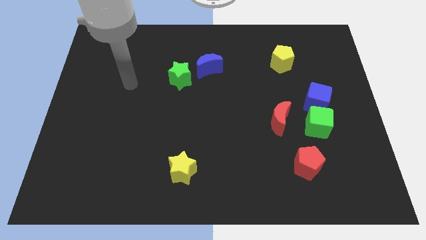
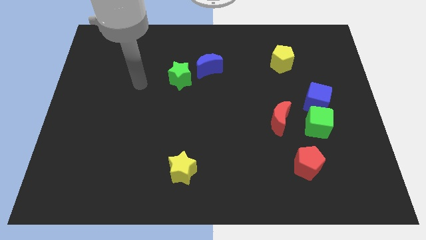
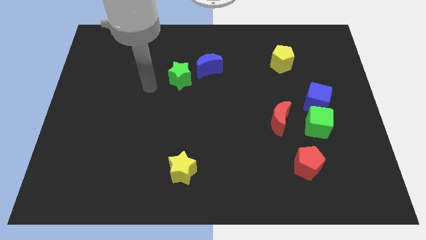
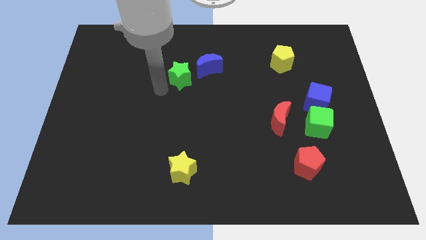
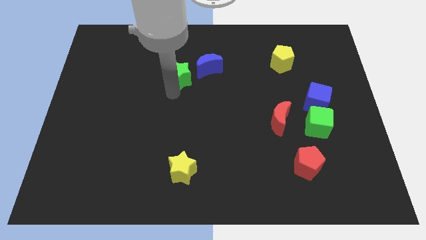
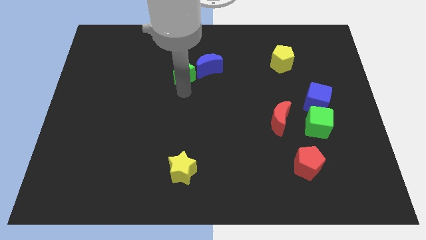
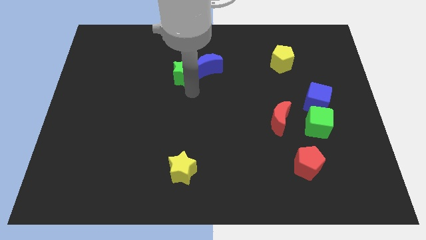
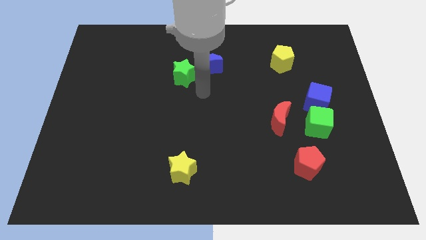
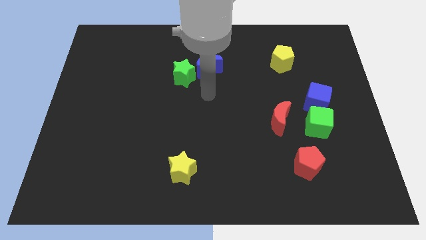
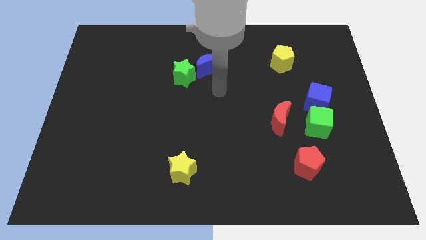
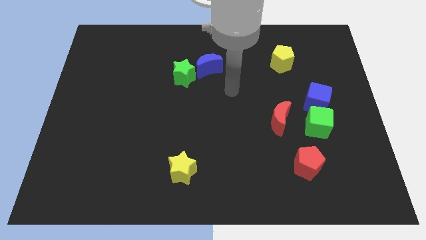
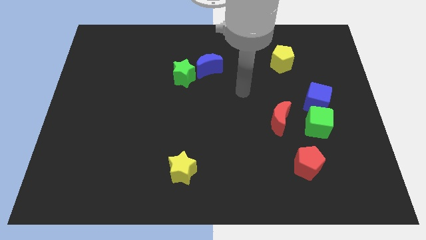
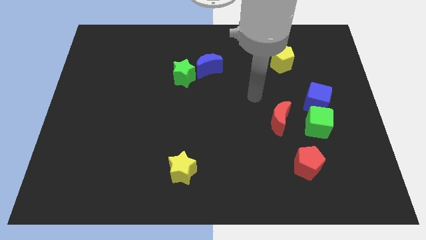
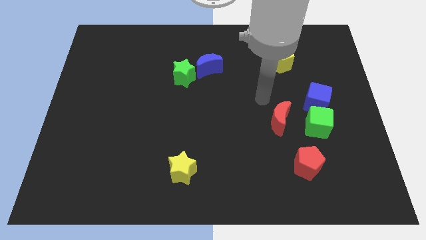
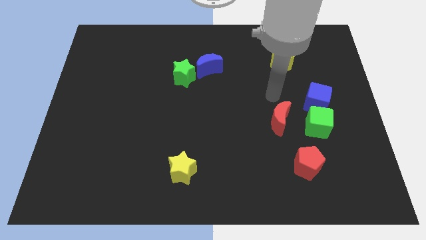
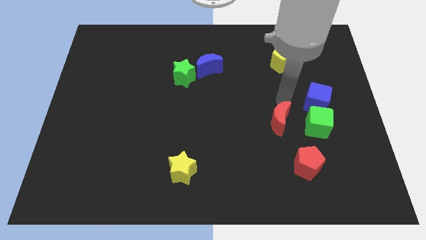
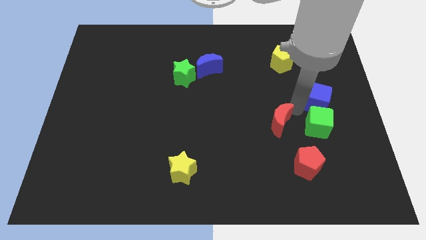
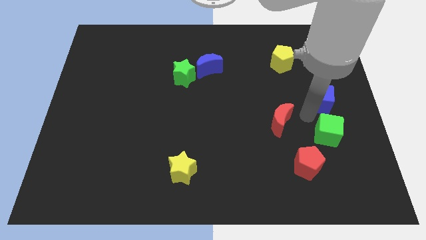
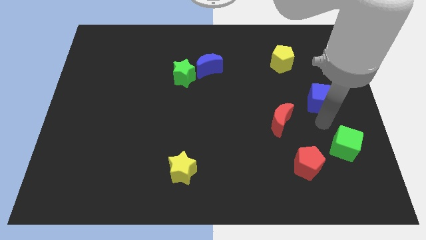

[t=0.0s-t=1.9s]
separate the blue cube from the green cube

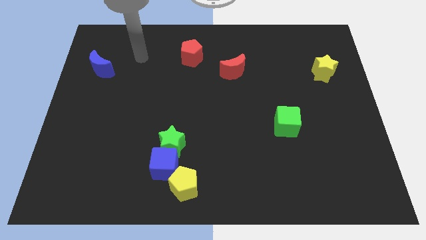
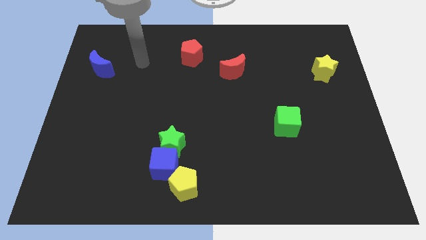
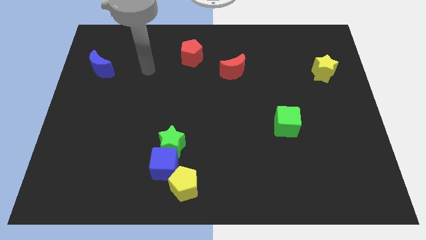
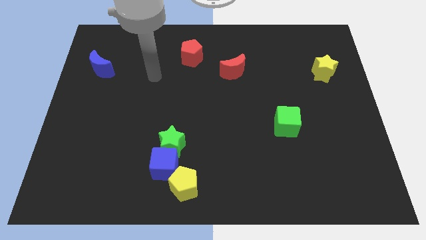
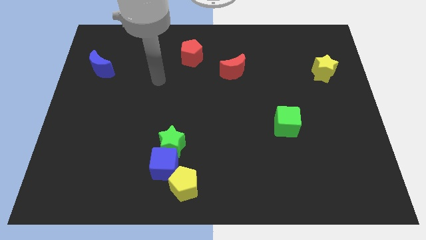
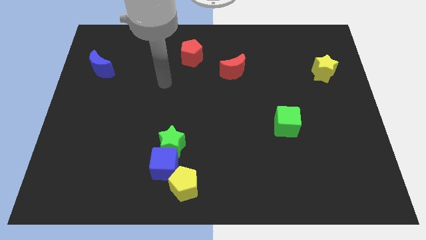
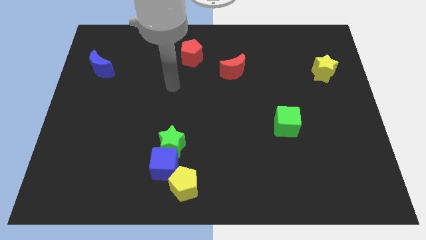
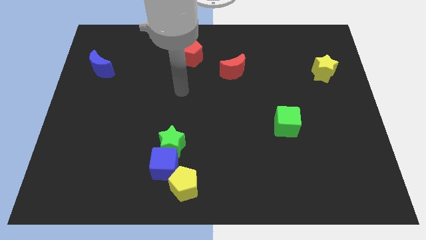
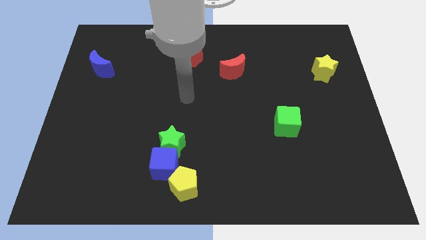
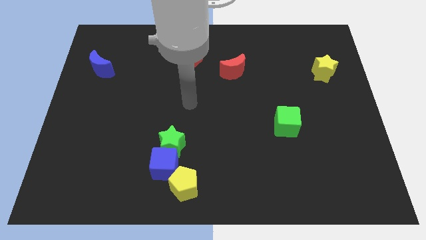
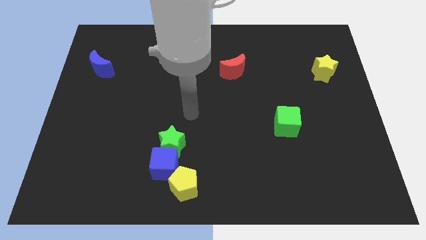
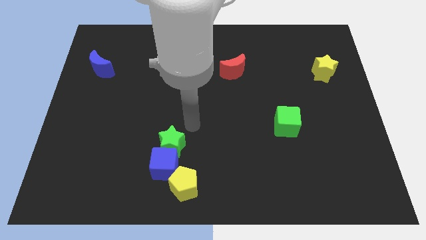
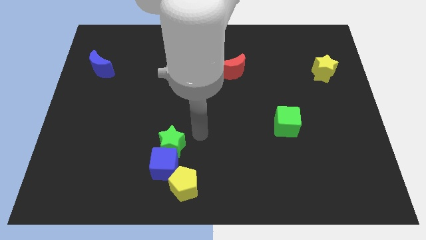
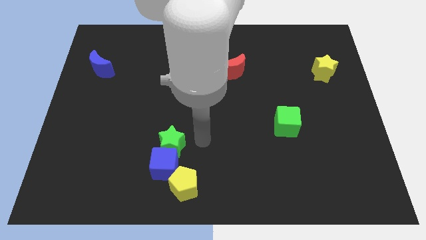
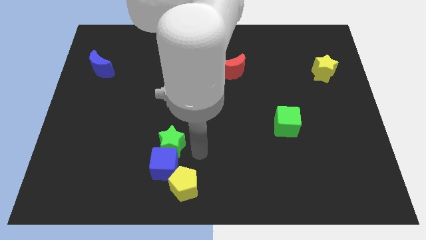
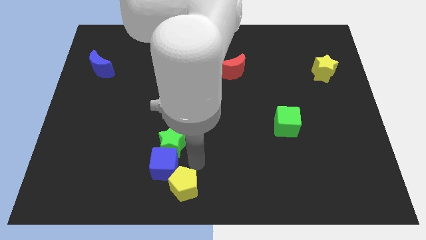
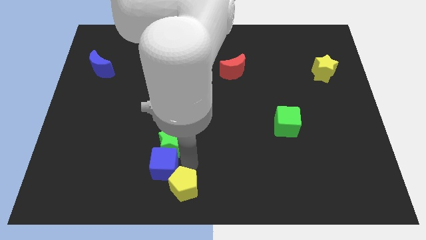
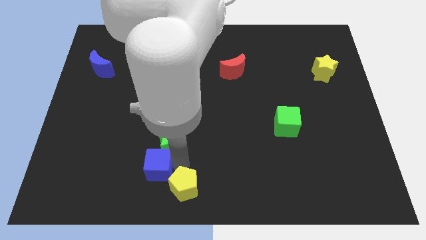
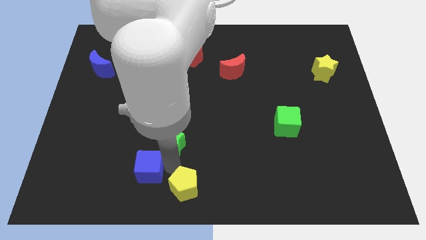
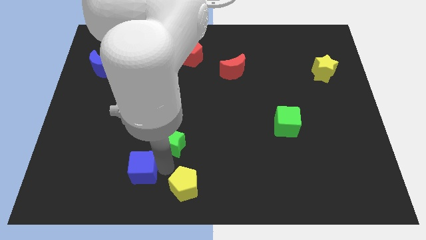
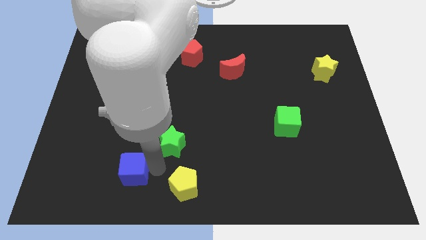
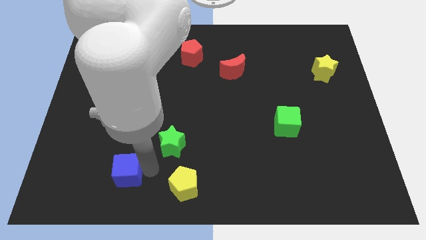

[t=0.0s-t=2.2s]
pull the blue cube apart from the green star and yellow pentagon

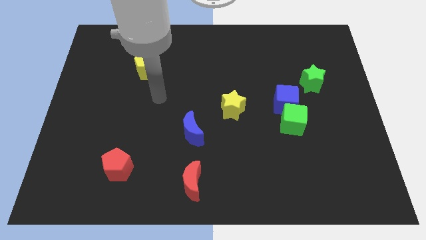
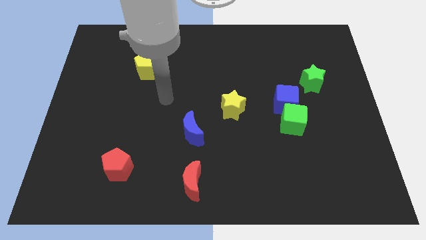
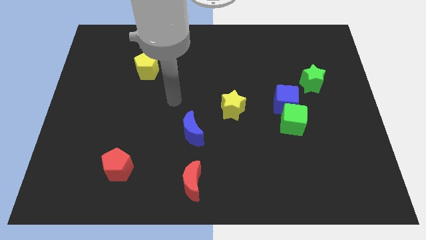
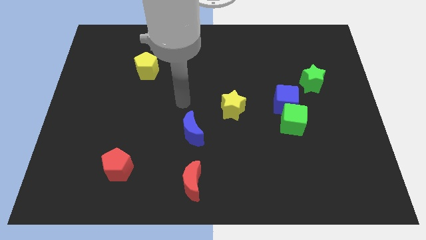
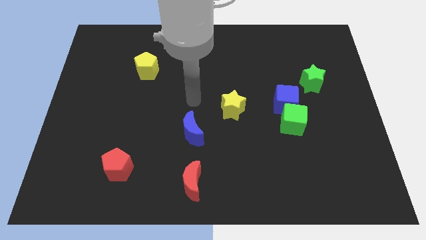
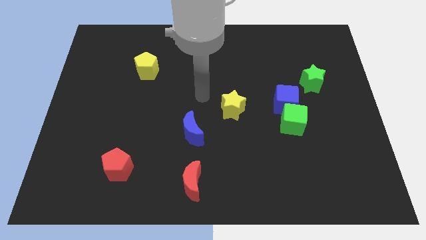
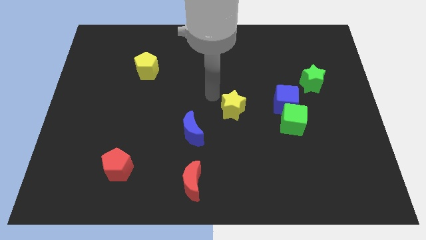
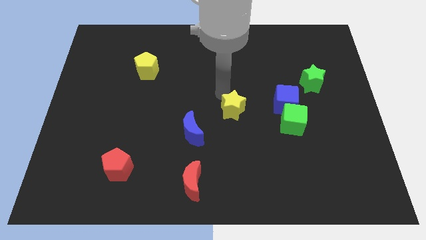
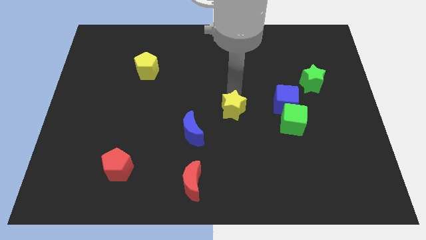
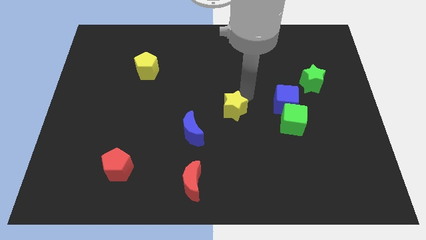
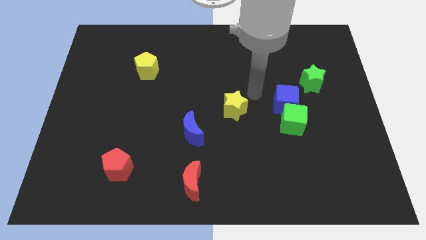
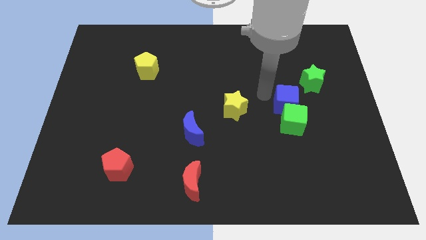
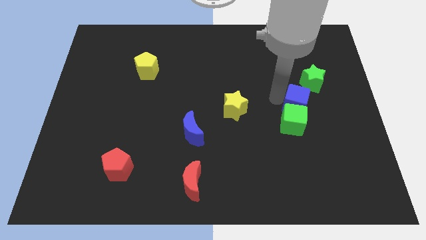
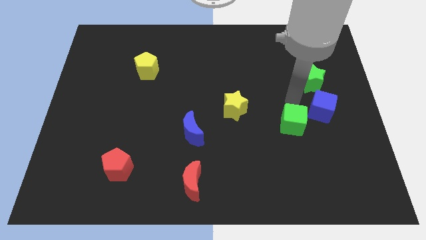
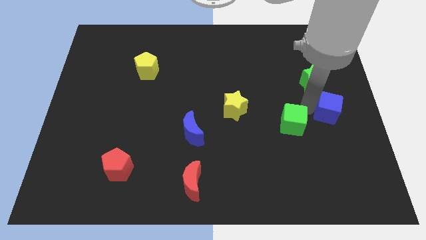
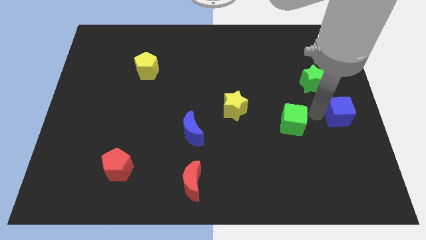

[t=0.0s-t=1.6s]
move the green cube away from the blue cube

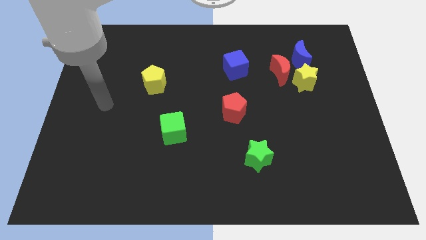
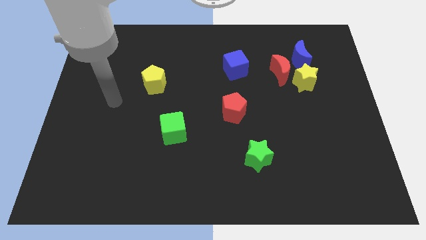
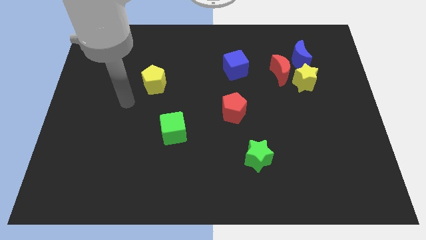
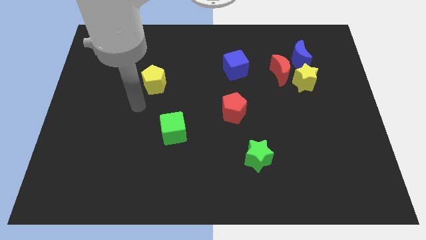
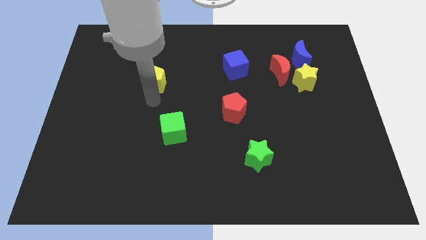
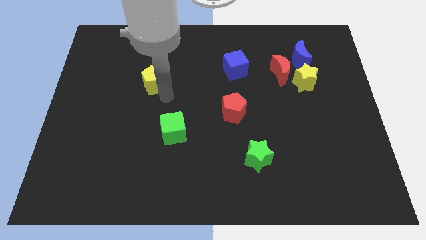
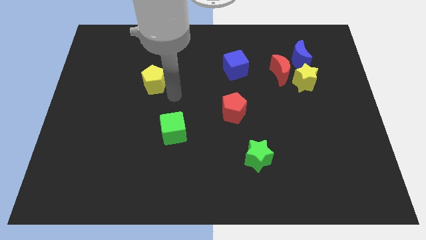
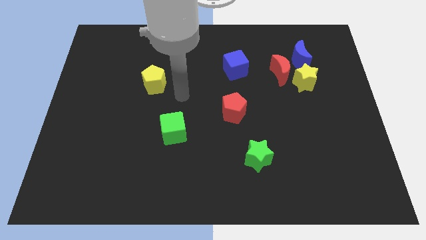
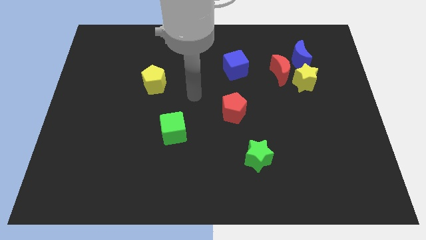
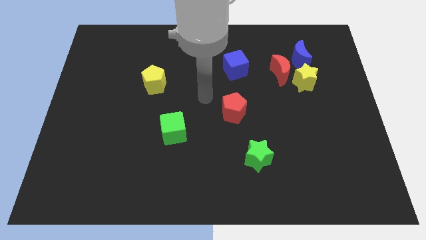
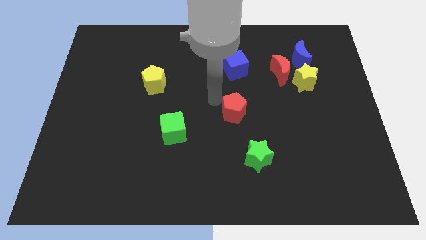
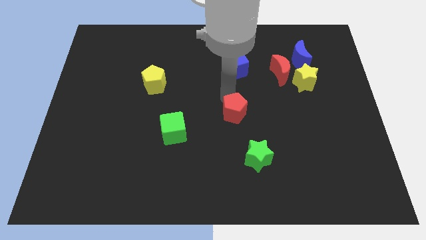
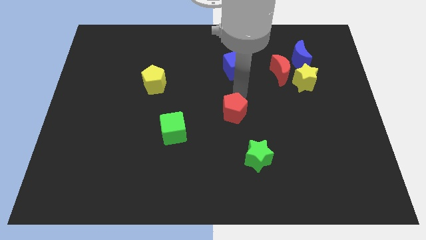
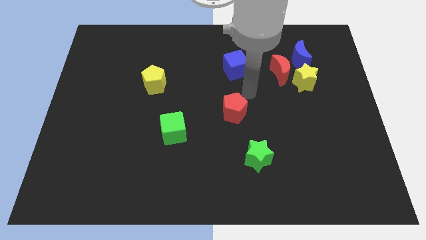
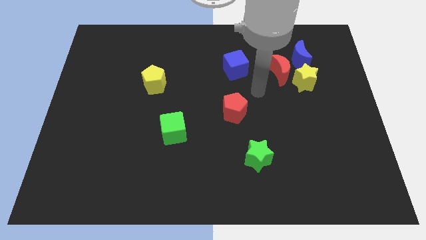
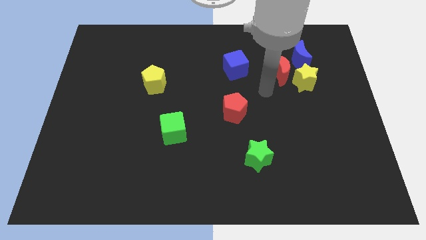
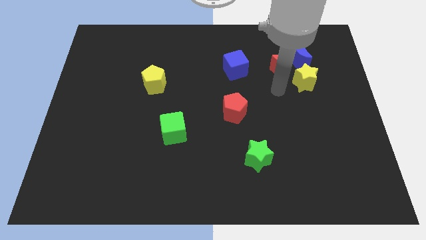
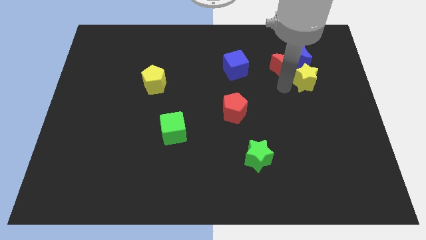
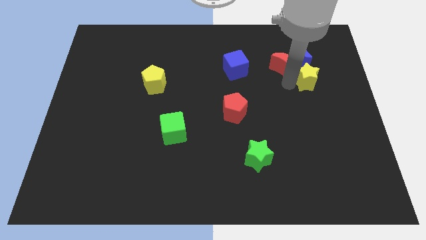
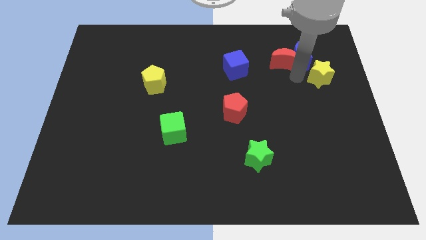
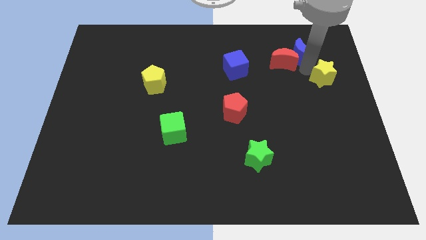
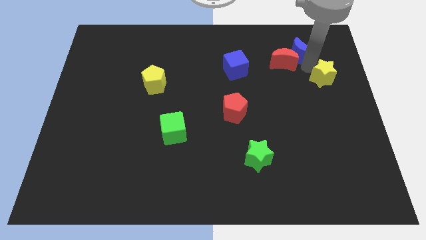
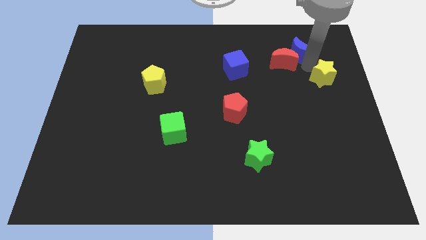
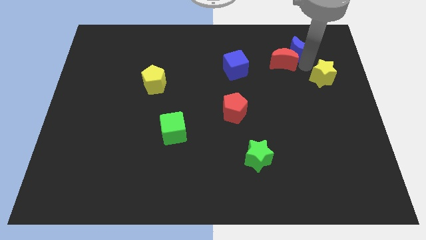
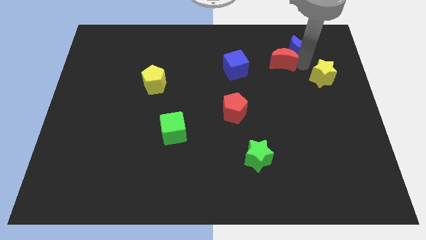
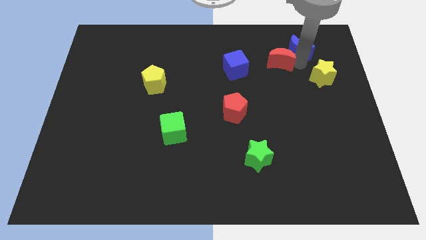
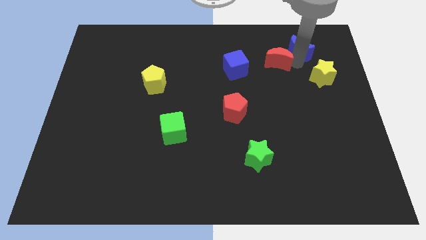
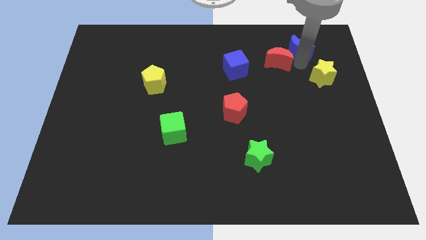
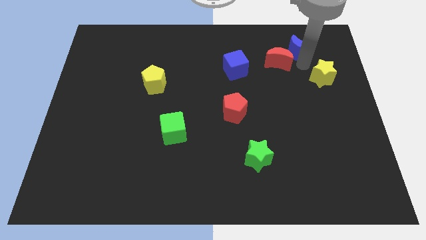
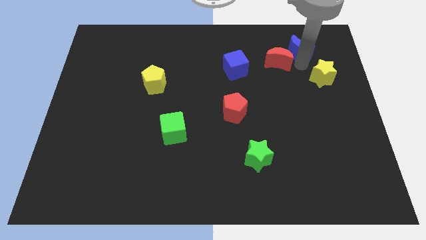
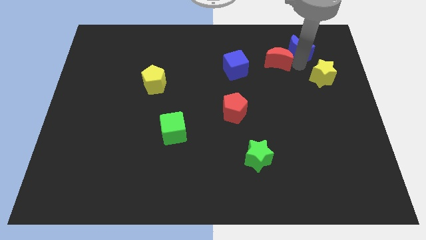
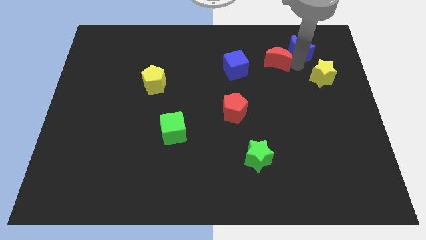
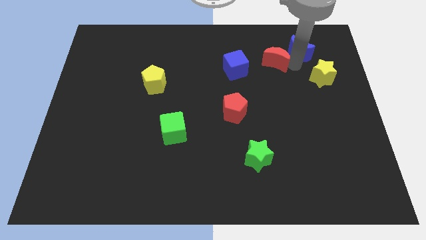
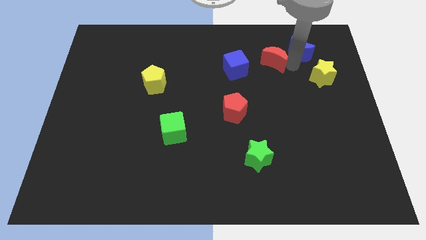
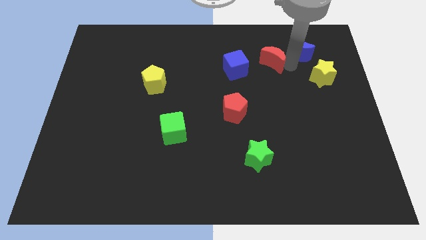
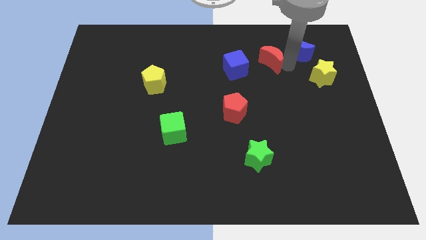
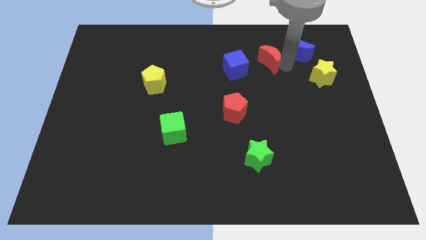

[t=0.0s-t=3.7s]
separate the red moon from the yellow star and blue moon
